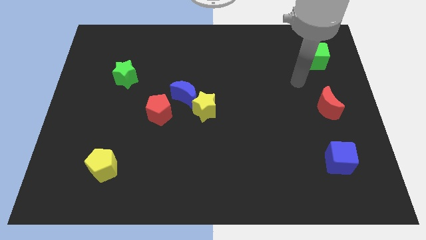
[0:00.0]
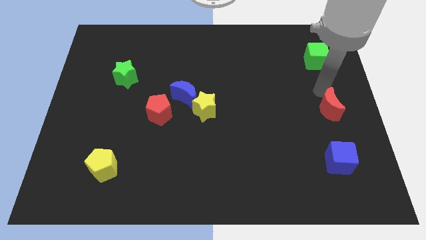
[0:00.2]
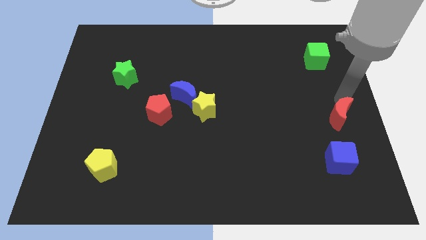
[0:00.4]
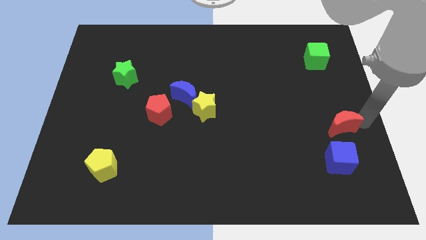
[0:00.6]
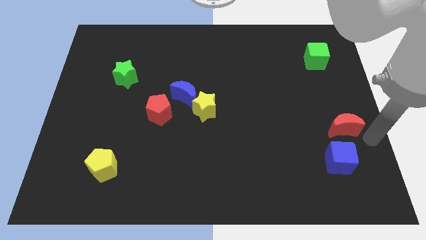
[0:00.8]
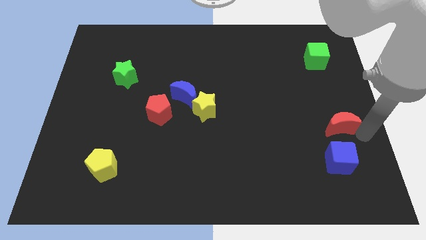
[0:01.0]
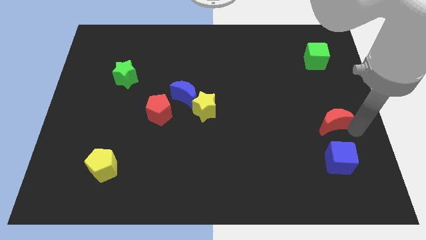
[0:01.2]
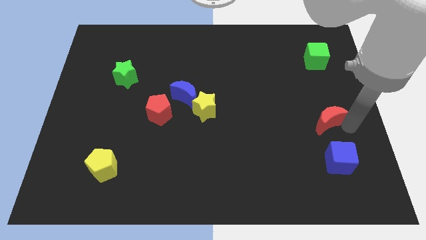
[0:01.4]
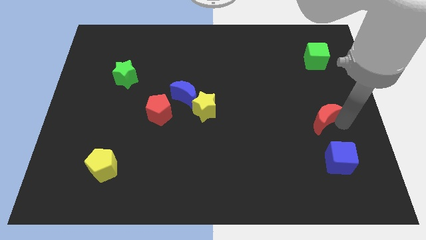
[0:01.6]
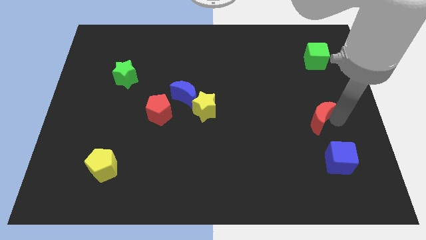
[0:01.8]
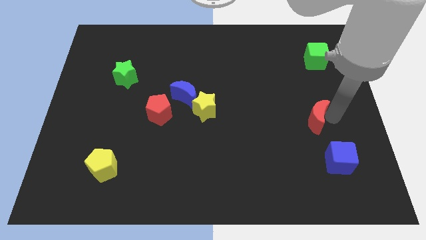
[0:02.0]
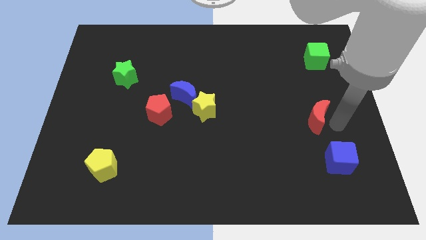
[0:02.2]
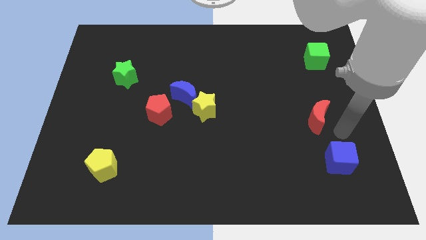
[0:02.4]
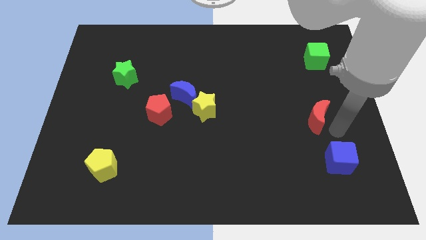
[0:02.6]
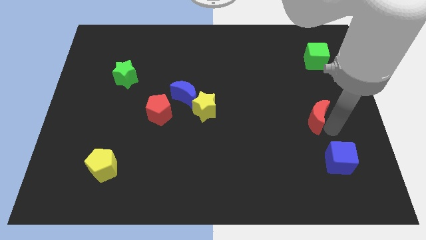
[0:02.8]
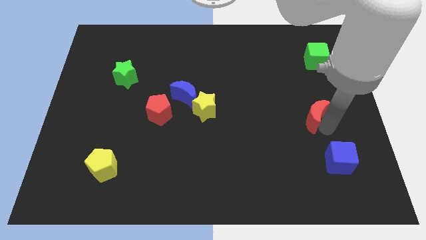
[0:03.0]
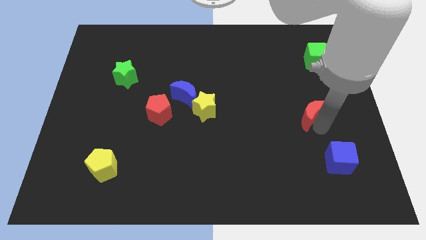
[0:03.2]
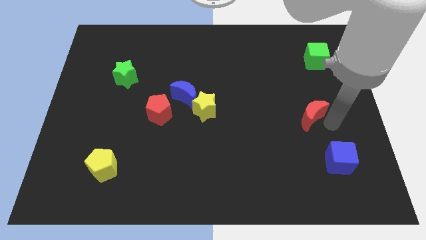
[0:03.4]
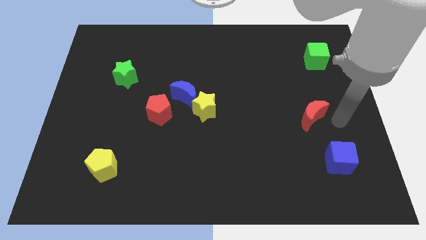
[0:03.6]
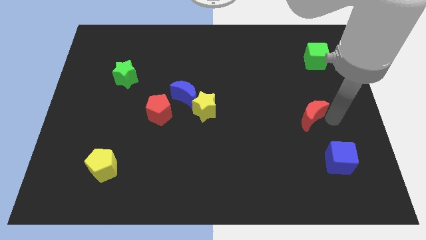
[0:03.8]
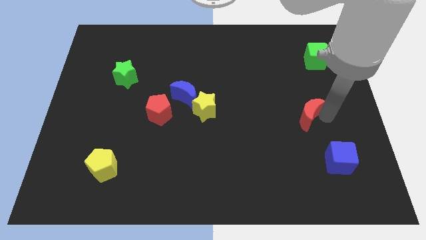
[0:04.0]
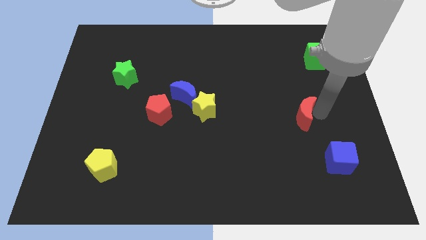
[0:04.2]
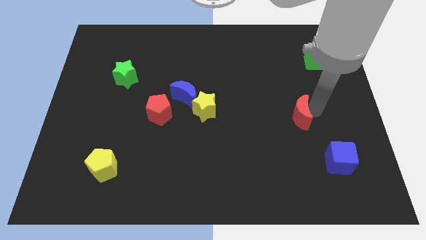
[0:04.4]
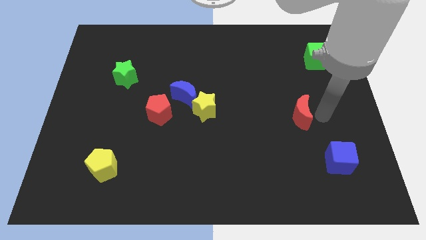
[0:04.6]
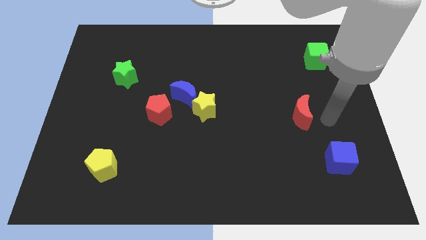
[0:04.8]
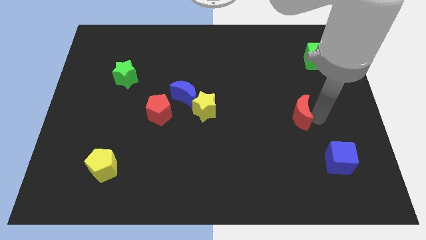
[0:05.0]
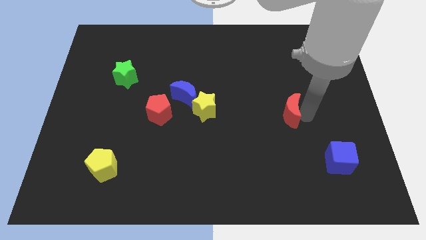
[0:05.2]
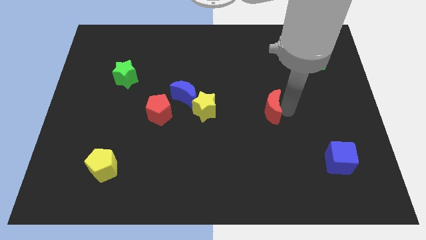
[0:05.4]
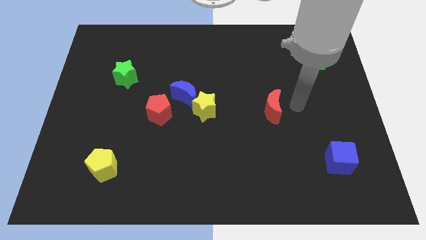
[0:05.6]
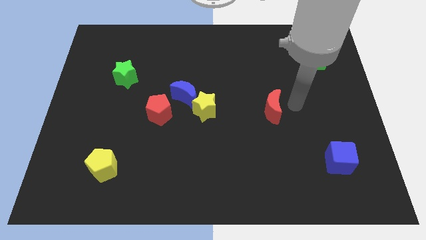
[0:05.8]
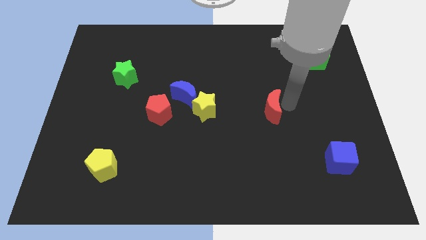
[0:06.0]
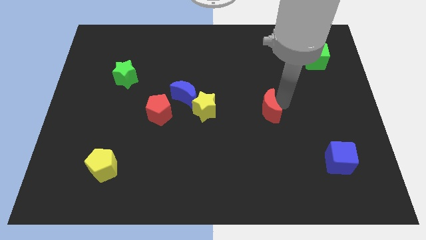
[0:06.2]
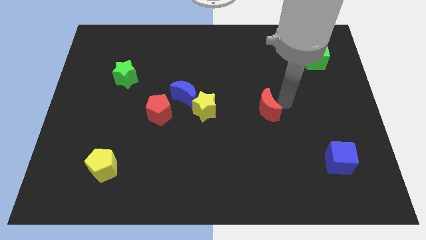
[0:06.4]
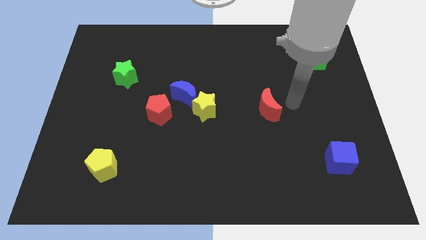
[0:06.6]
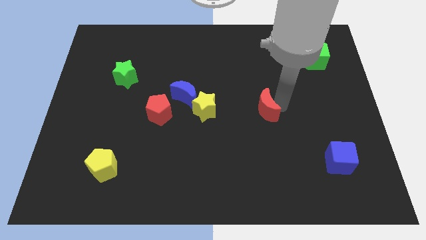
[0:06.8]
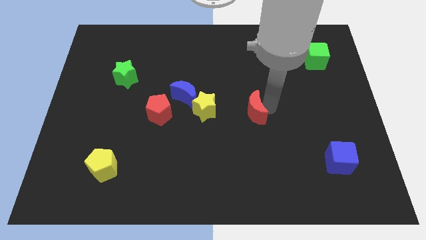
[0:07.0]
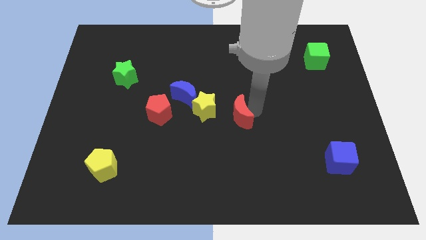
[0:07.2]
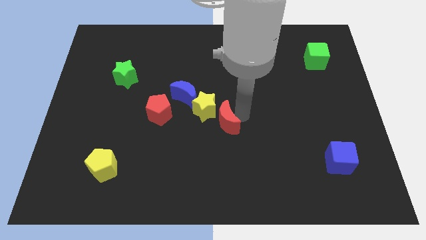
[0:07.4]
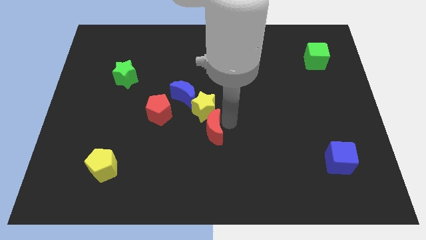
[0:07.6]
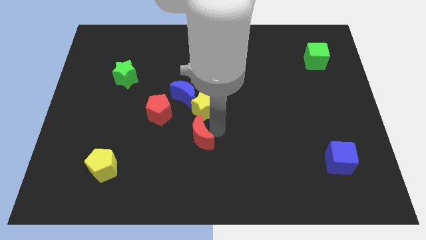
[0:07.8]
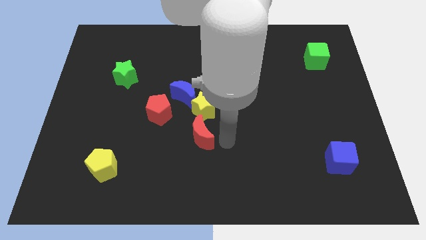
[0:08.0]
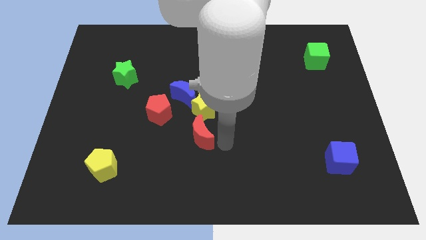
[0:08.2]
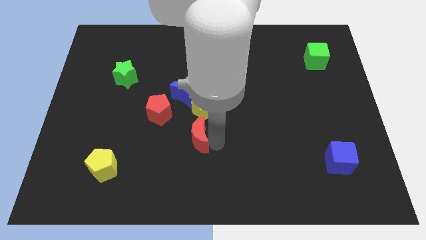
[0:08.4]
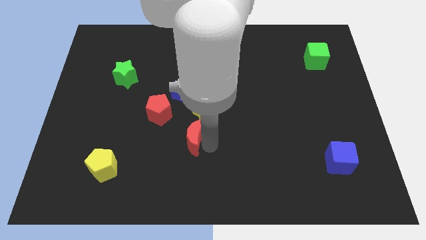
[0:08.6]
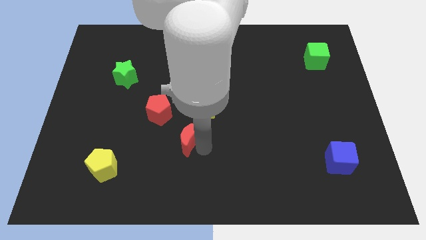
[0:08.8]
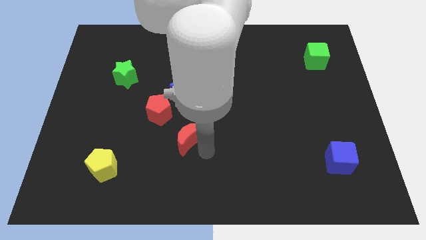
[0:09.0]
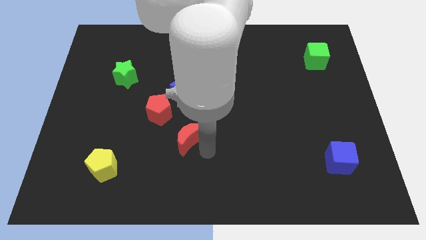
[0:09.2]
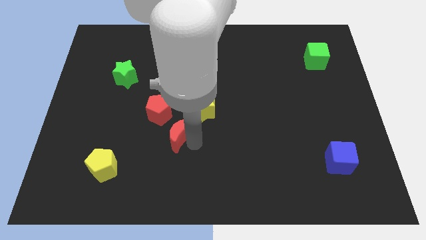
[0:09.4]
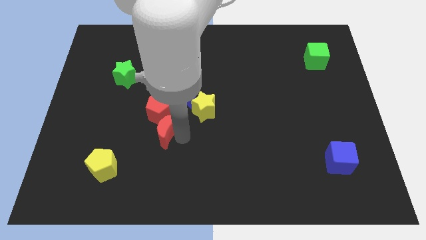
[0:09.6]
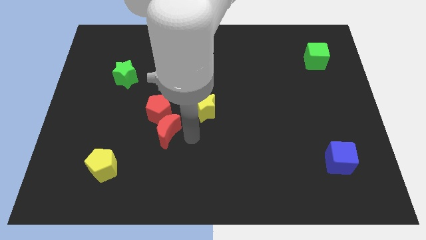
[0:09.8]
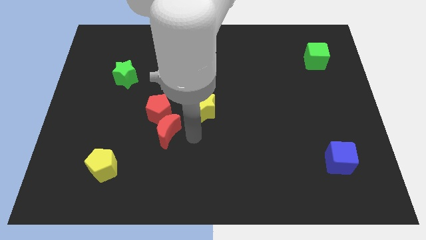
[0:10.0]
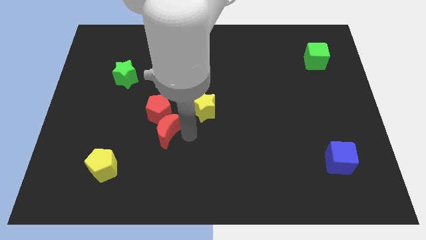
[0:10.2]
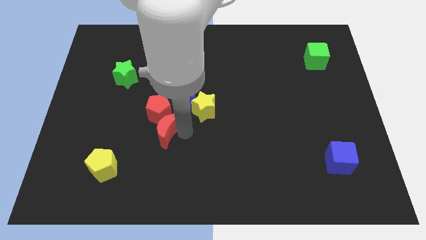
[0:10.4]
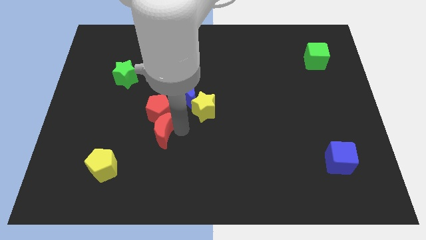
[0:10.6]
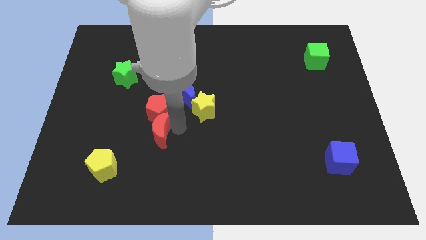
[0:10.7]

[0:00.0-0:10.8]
move the red moon diagonally down and to the left of the red pentagon

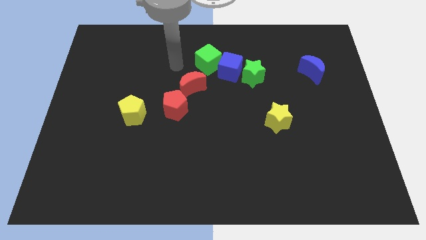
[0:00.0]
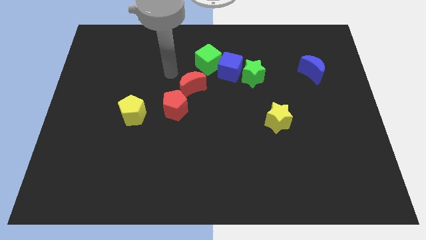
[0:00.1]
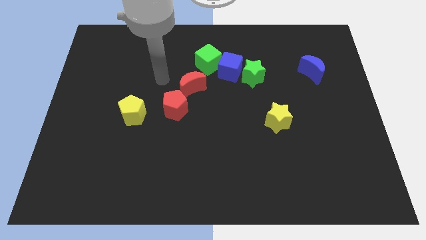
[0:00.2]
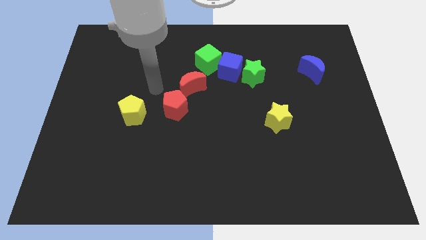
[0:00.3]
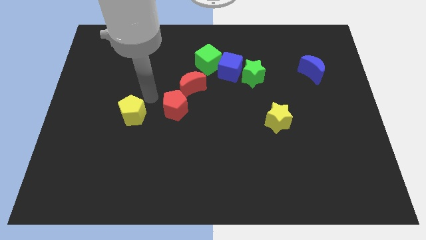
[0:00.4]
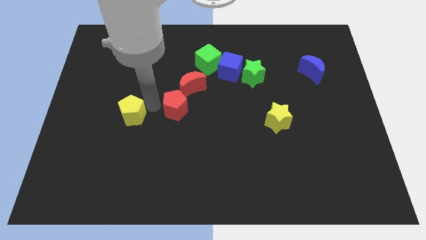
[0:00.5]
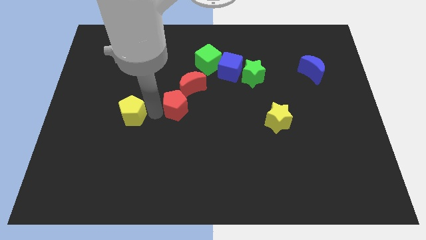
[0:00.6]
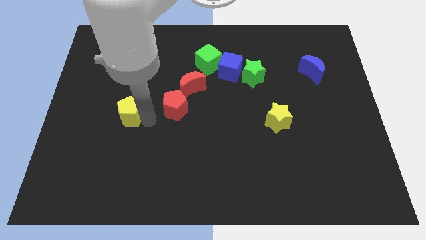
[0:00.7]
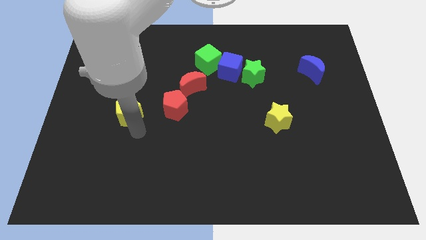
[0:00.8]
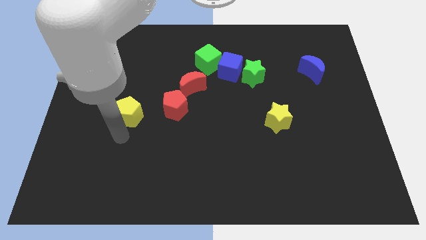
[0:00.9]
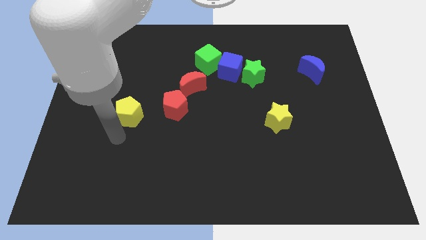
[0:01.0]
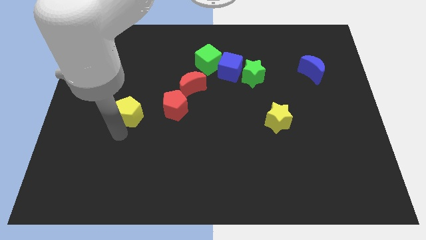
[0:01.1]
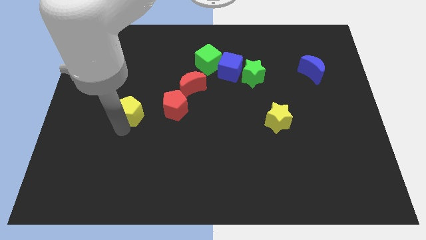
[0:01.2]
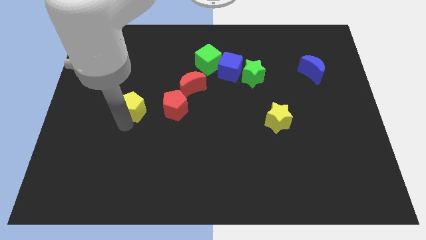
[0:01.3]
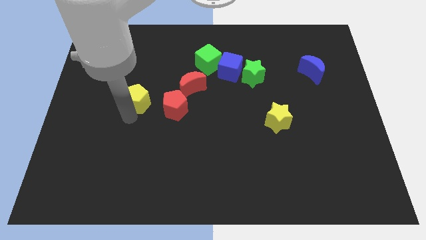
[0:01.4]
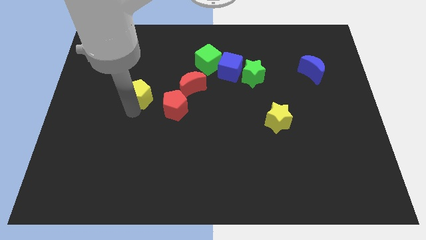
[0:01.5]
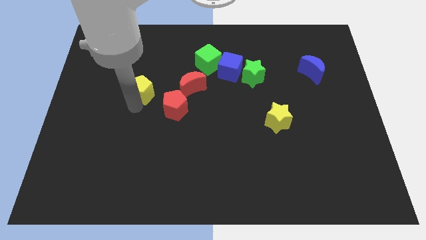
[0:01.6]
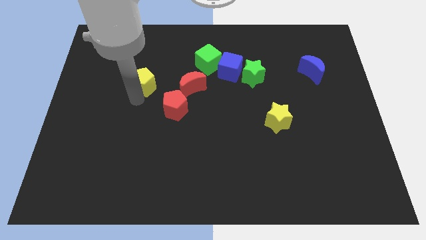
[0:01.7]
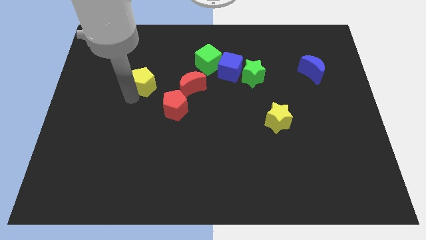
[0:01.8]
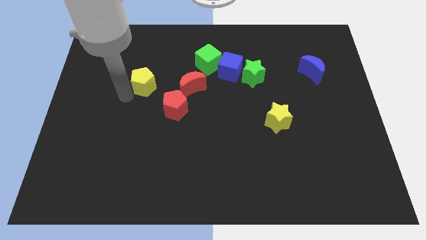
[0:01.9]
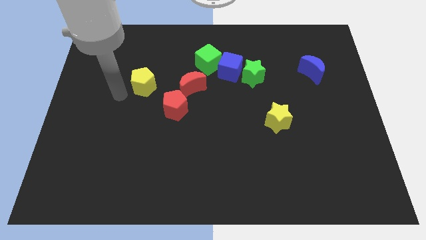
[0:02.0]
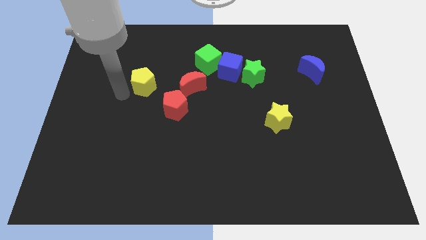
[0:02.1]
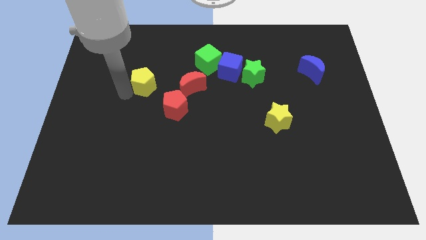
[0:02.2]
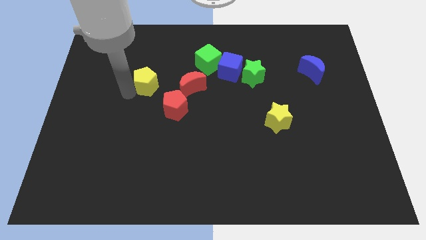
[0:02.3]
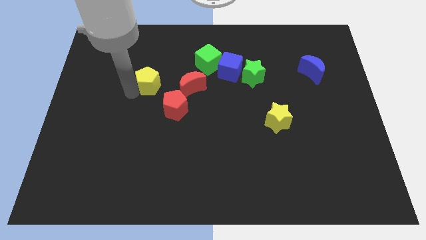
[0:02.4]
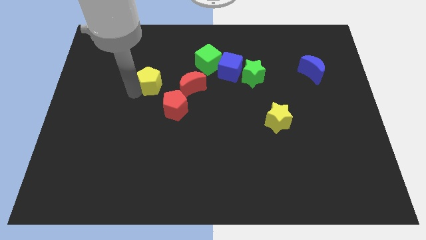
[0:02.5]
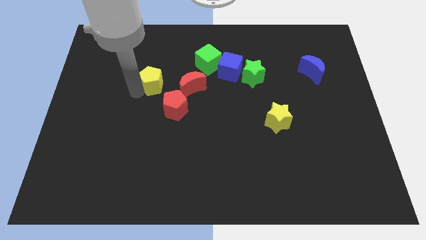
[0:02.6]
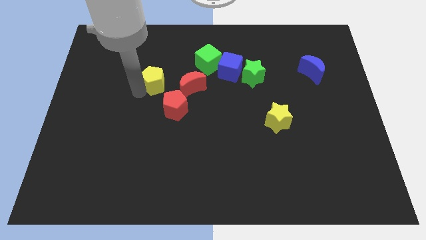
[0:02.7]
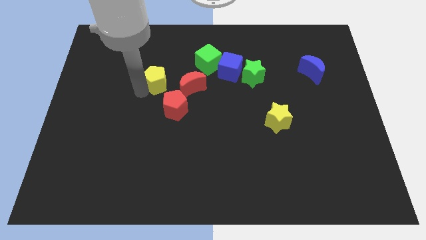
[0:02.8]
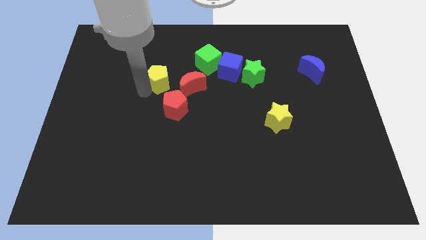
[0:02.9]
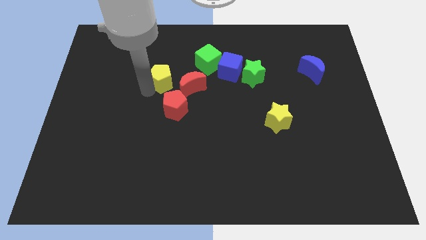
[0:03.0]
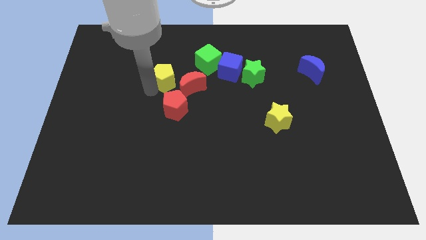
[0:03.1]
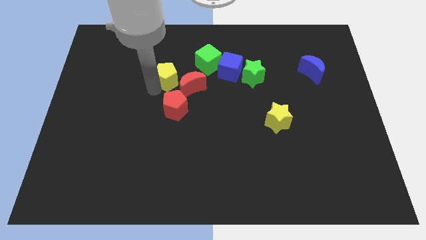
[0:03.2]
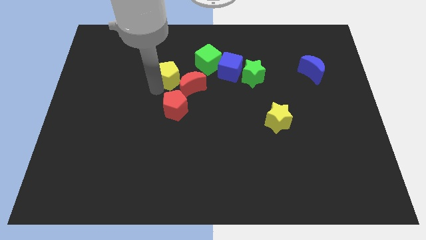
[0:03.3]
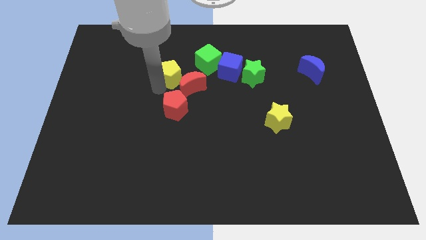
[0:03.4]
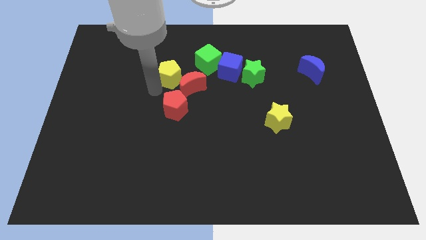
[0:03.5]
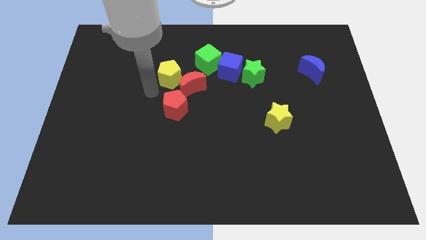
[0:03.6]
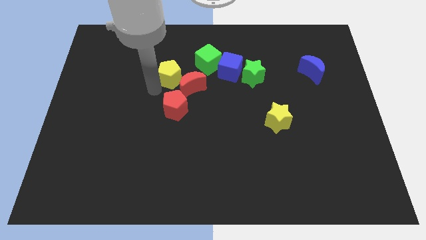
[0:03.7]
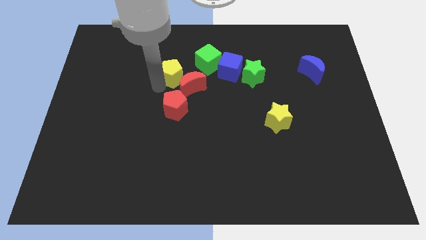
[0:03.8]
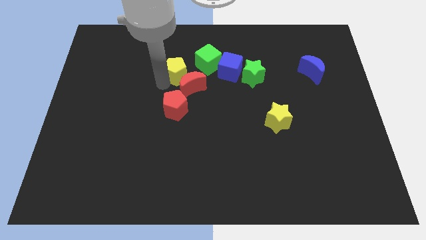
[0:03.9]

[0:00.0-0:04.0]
put the yellow pentagon to the top side of the red moon
